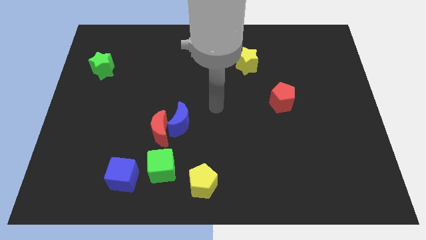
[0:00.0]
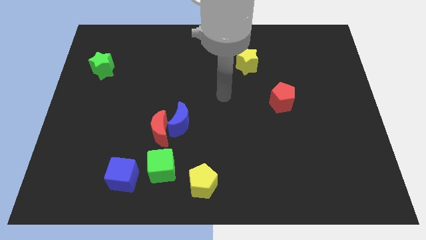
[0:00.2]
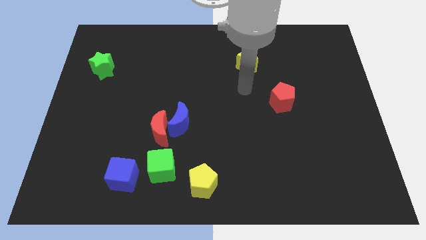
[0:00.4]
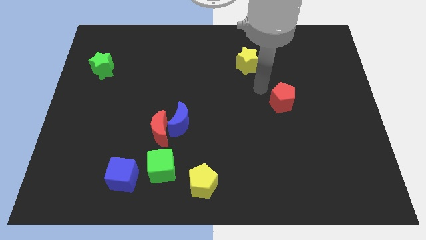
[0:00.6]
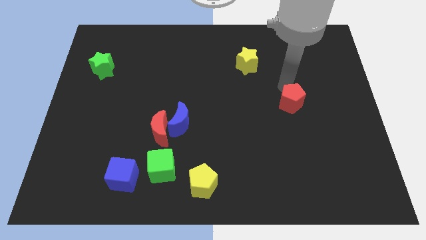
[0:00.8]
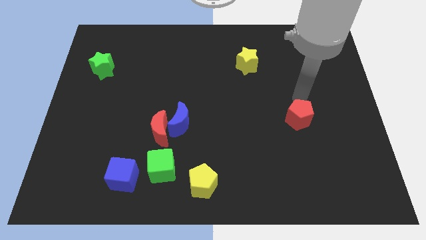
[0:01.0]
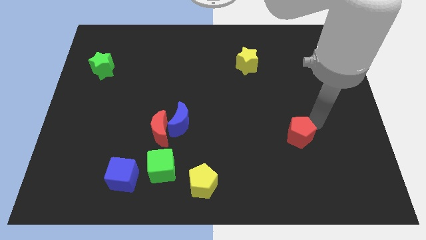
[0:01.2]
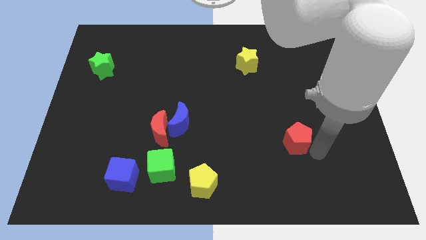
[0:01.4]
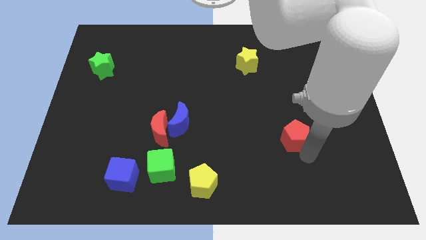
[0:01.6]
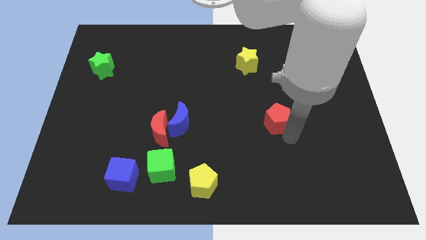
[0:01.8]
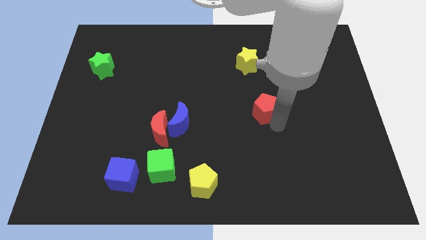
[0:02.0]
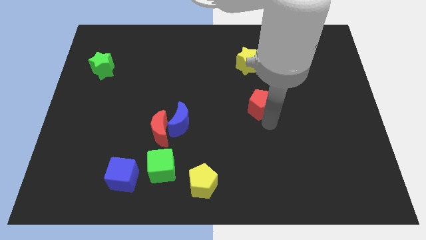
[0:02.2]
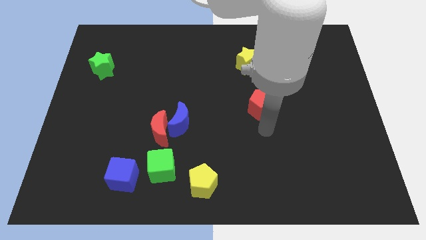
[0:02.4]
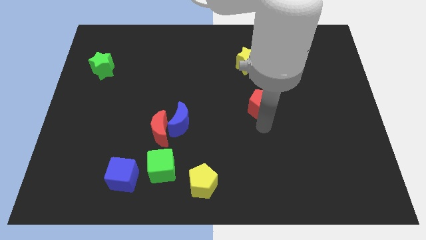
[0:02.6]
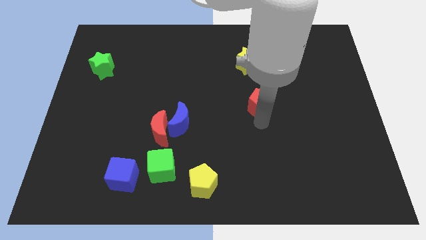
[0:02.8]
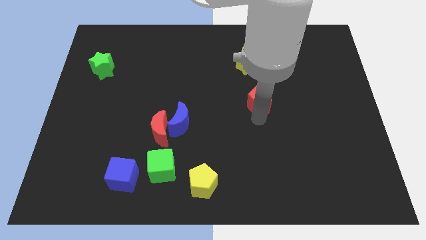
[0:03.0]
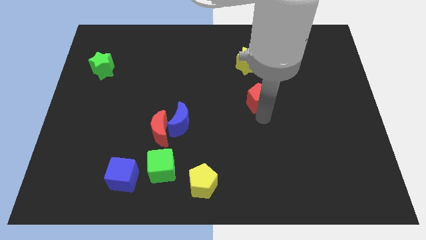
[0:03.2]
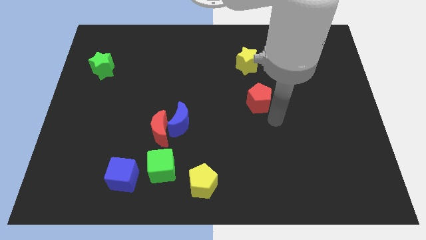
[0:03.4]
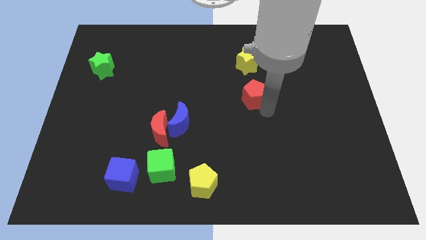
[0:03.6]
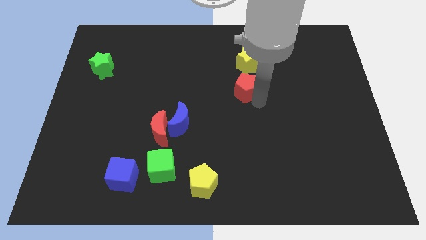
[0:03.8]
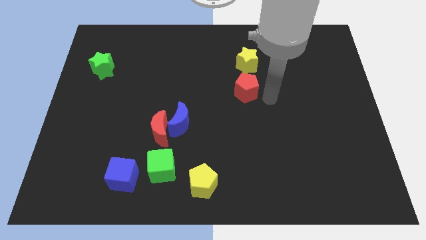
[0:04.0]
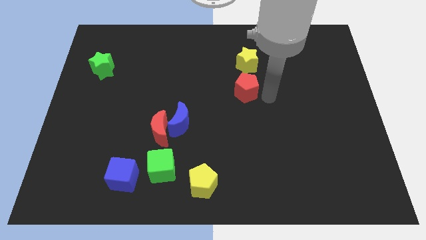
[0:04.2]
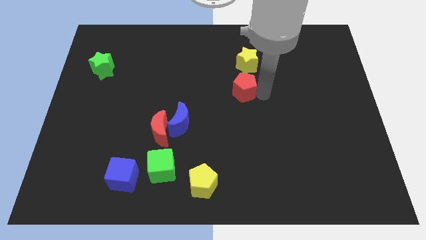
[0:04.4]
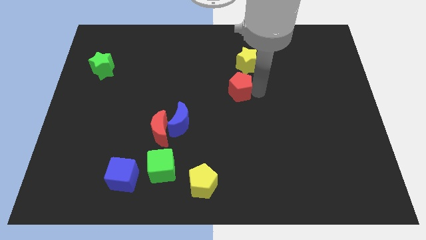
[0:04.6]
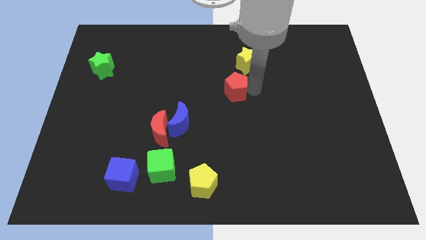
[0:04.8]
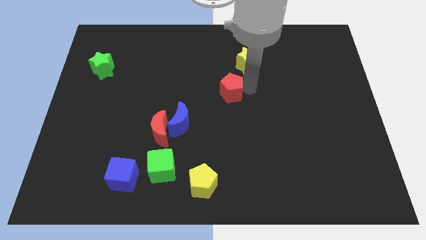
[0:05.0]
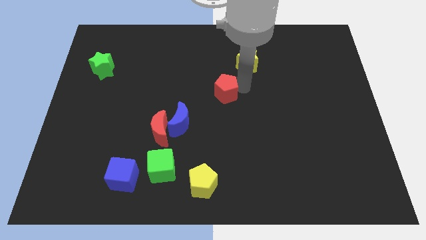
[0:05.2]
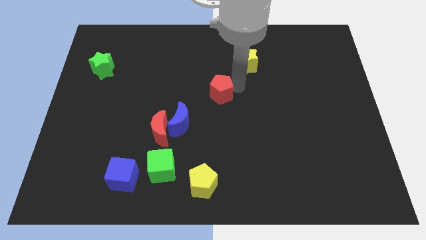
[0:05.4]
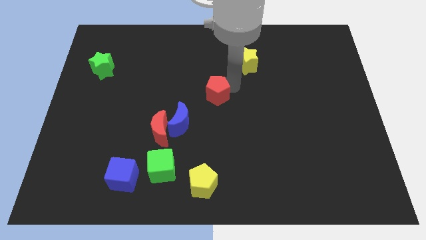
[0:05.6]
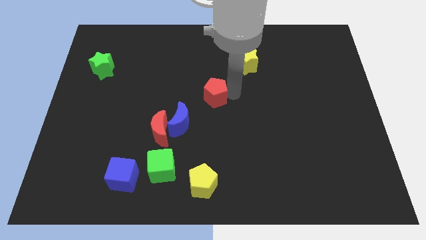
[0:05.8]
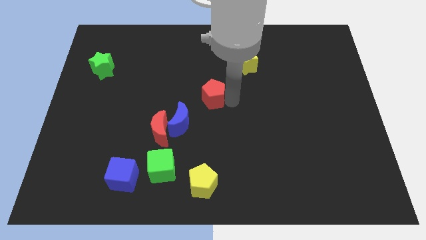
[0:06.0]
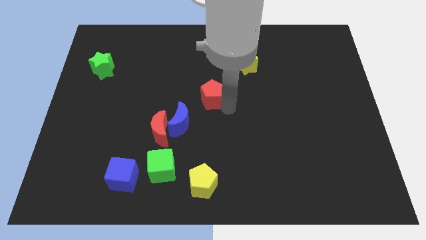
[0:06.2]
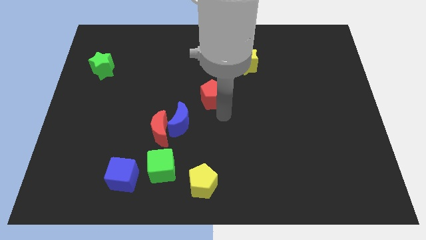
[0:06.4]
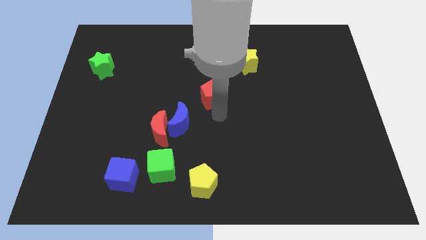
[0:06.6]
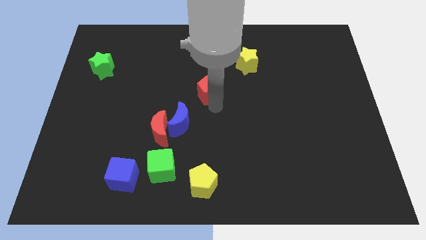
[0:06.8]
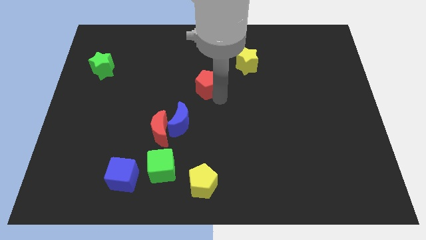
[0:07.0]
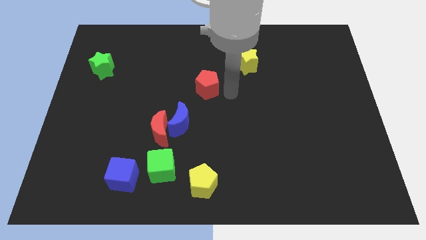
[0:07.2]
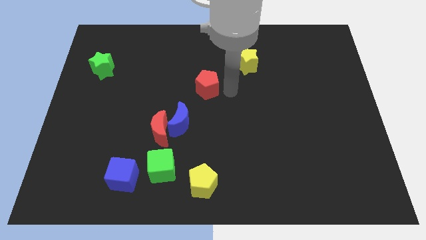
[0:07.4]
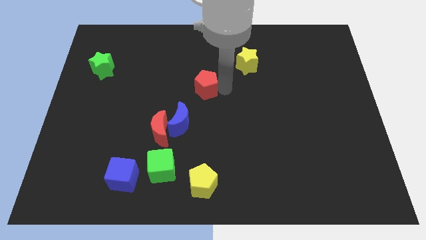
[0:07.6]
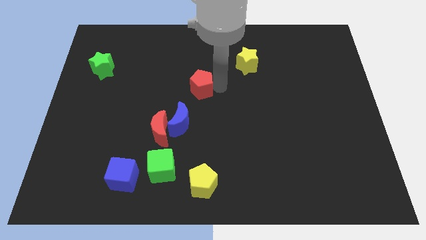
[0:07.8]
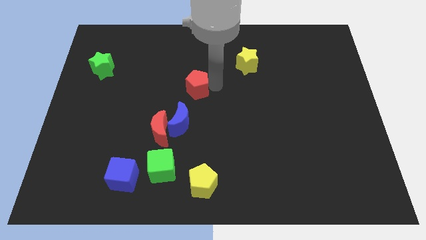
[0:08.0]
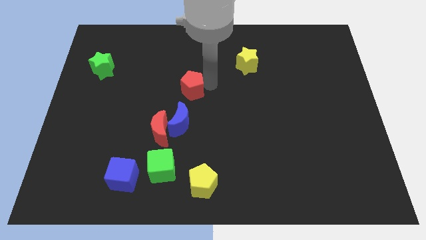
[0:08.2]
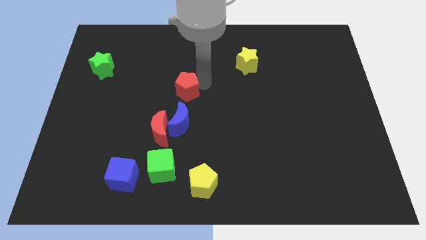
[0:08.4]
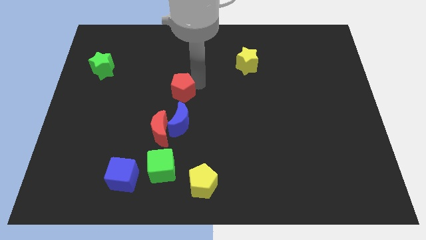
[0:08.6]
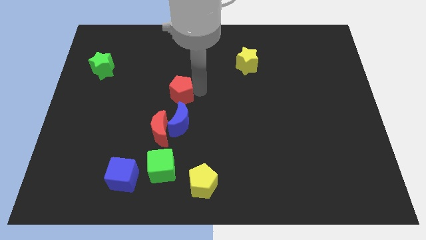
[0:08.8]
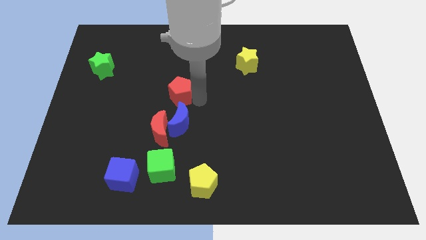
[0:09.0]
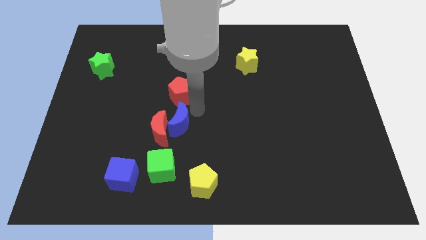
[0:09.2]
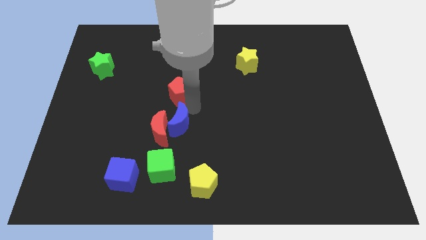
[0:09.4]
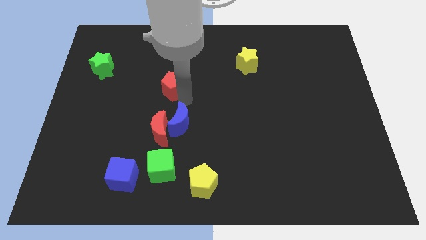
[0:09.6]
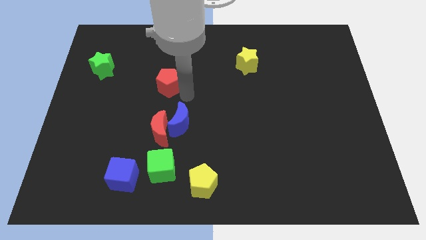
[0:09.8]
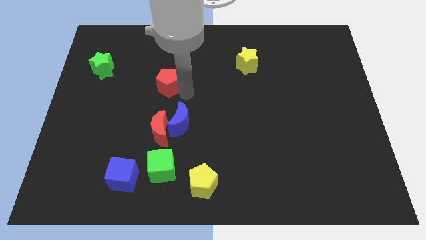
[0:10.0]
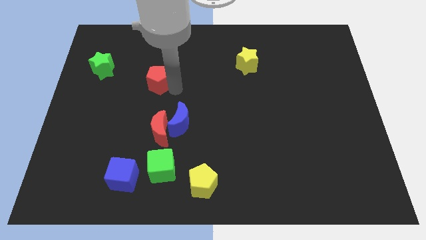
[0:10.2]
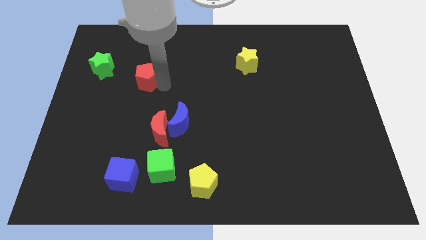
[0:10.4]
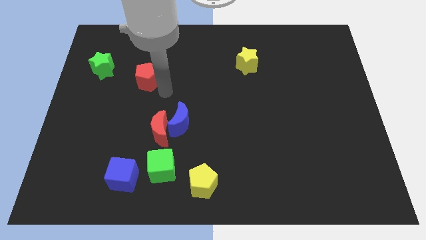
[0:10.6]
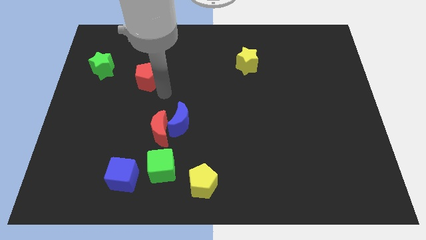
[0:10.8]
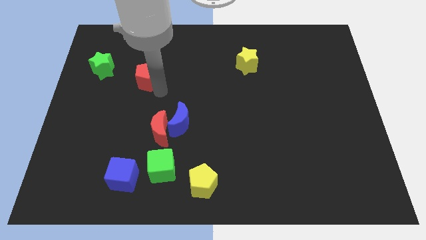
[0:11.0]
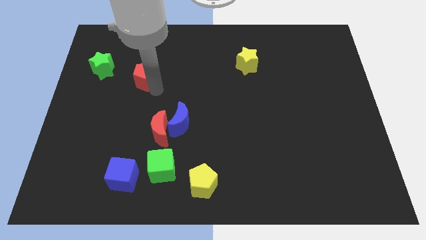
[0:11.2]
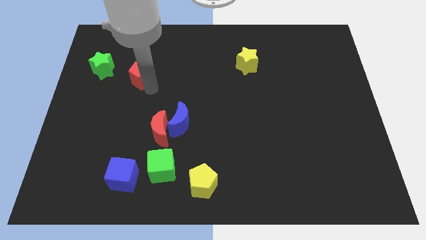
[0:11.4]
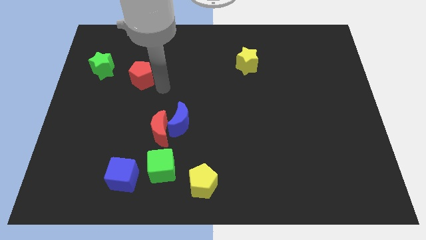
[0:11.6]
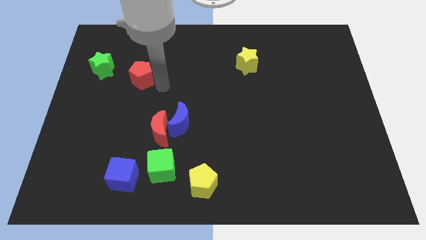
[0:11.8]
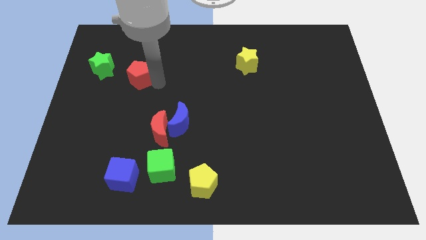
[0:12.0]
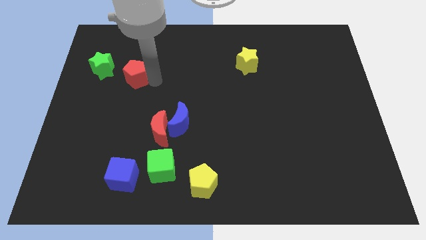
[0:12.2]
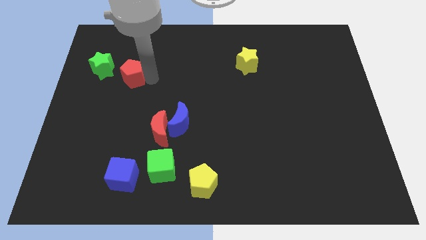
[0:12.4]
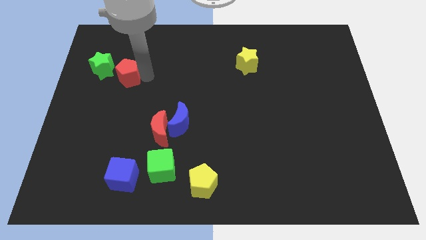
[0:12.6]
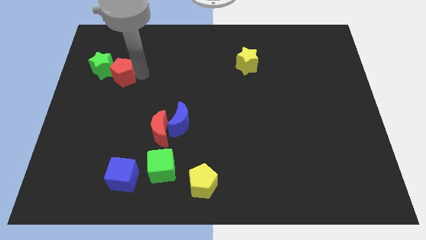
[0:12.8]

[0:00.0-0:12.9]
slide the red pentagon to the green star

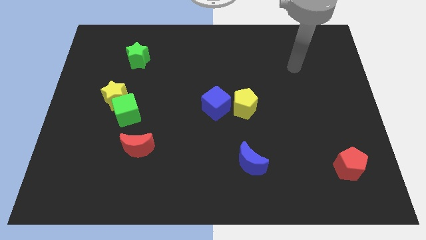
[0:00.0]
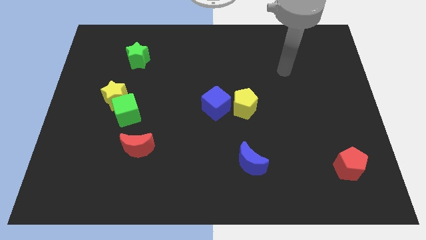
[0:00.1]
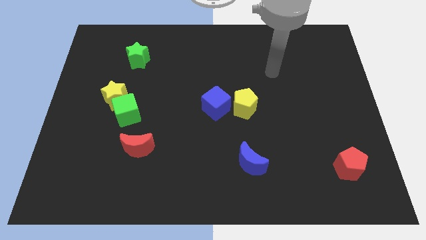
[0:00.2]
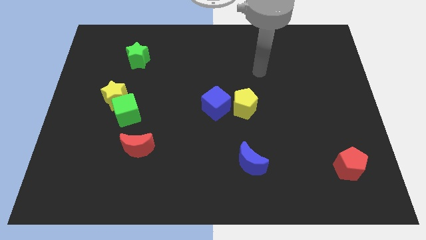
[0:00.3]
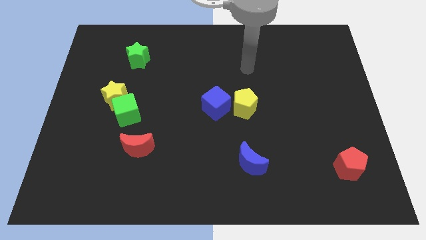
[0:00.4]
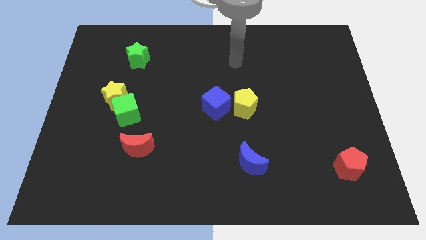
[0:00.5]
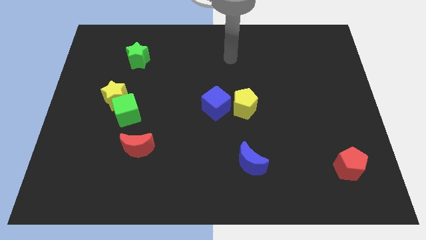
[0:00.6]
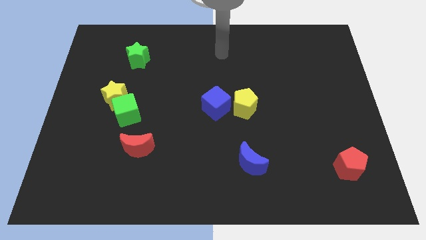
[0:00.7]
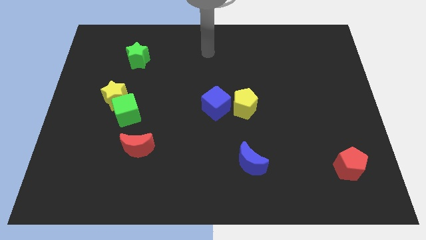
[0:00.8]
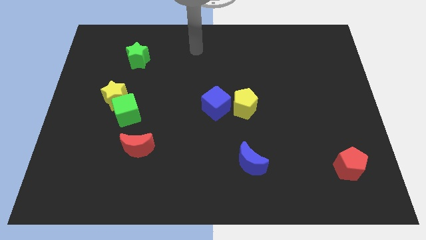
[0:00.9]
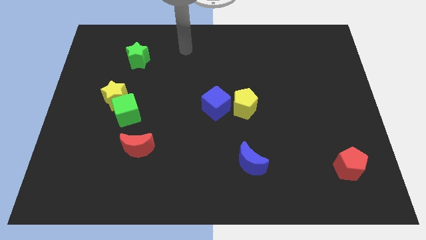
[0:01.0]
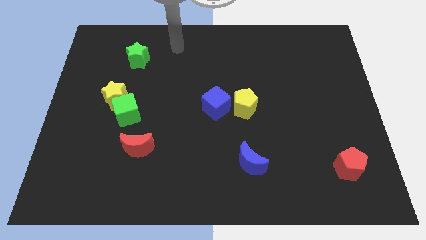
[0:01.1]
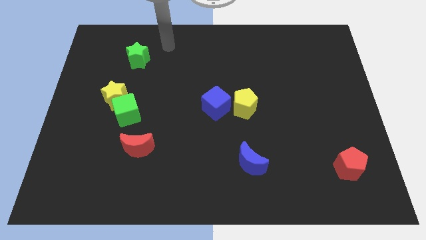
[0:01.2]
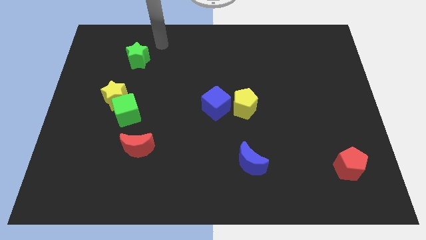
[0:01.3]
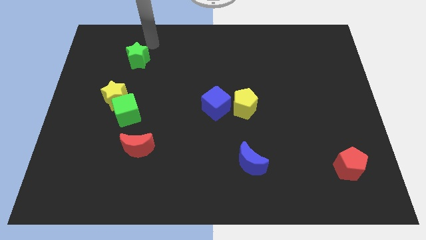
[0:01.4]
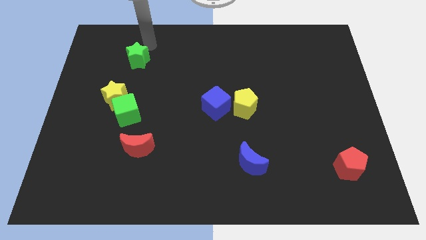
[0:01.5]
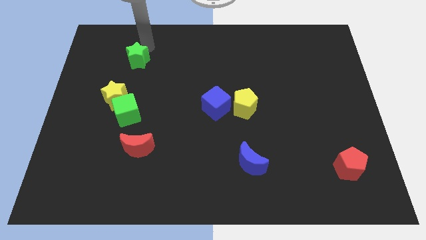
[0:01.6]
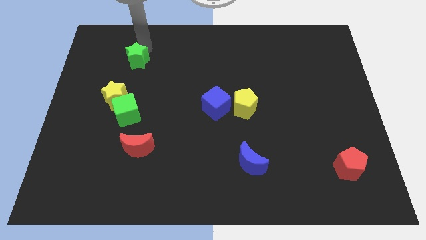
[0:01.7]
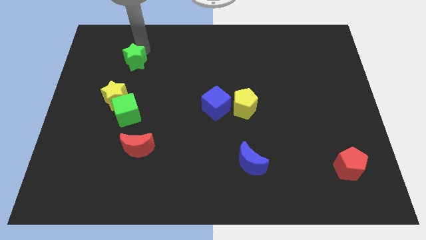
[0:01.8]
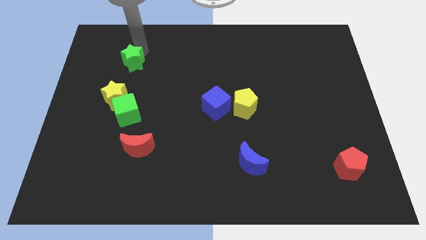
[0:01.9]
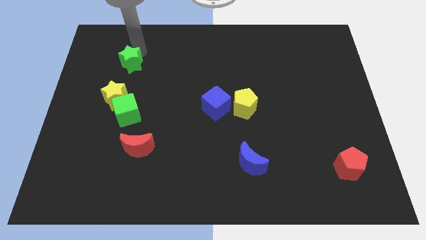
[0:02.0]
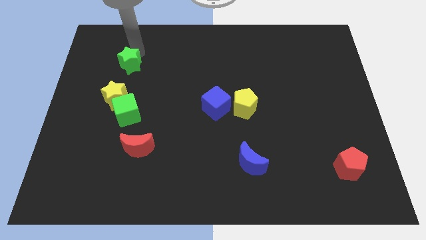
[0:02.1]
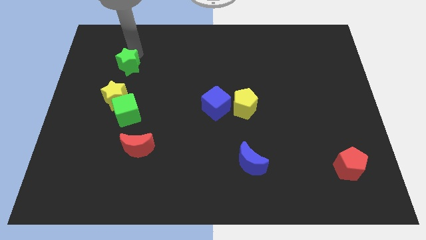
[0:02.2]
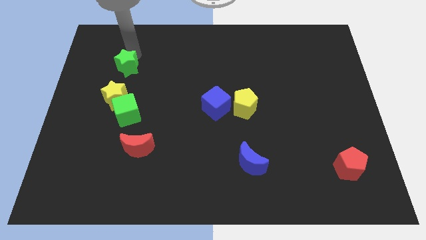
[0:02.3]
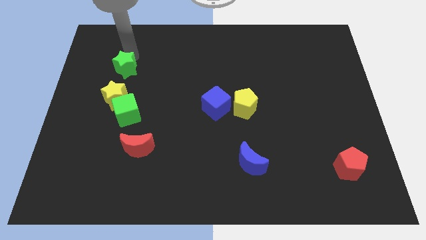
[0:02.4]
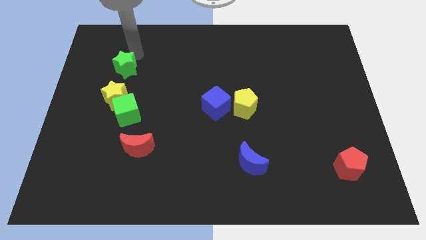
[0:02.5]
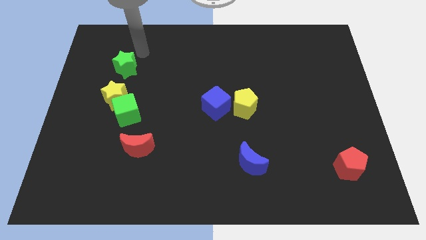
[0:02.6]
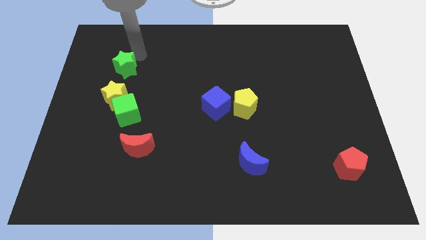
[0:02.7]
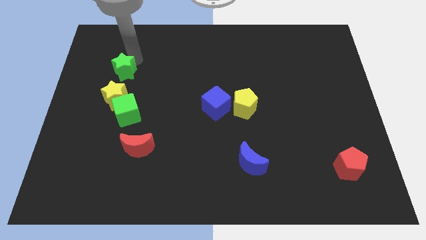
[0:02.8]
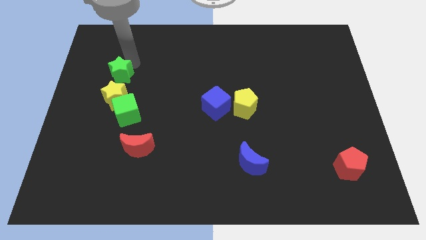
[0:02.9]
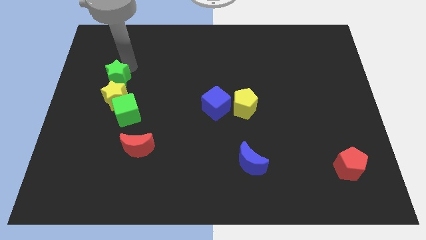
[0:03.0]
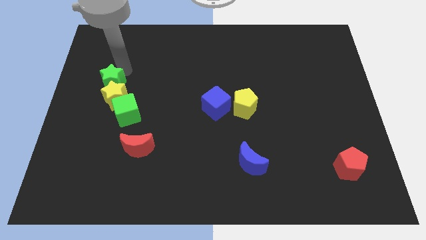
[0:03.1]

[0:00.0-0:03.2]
put the green star close to the yellow star
